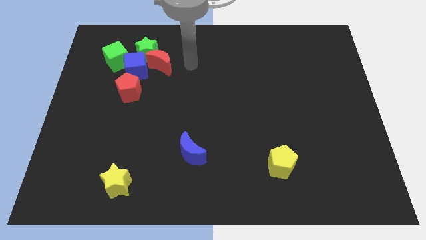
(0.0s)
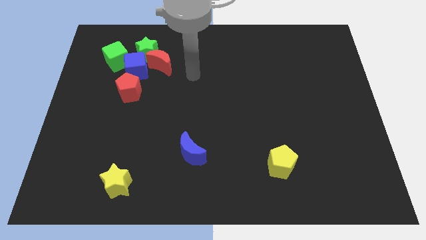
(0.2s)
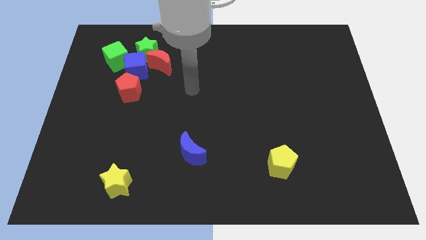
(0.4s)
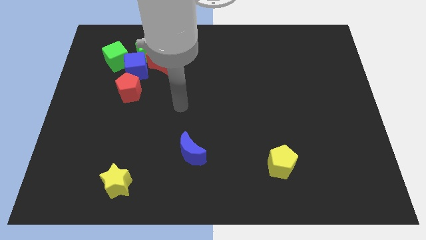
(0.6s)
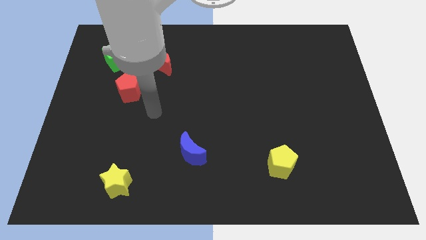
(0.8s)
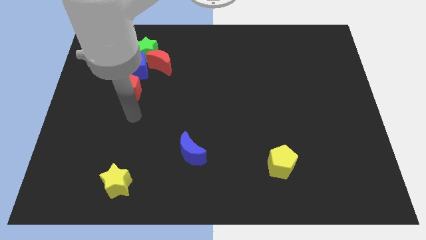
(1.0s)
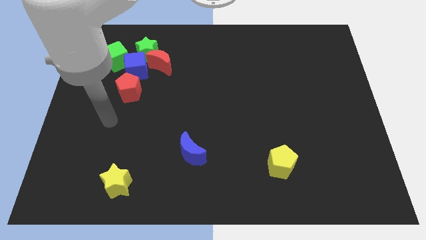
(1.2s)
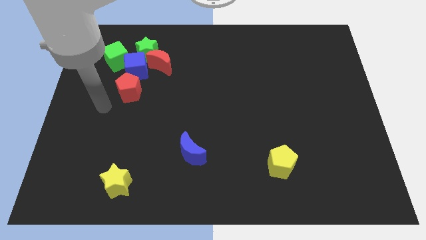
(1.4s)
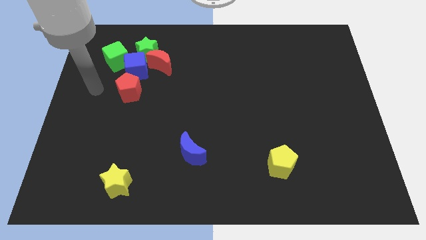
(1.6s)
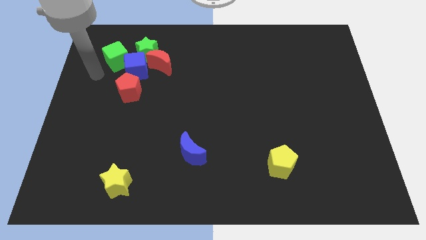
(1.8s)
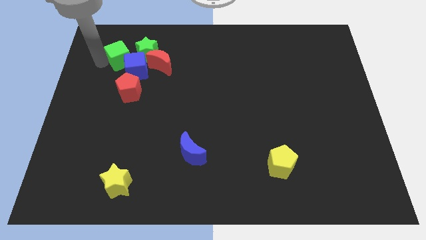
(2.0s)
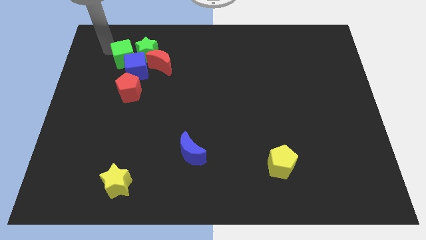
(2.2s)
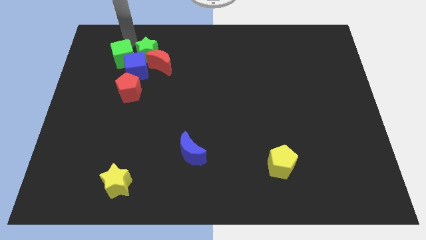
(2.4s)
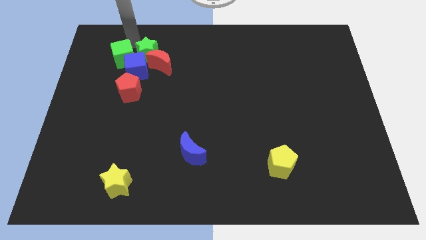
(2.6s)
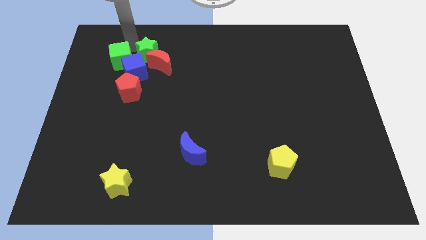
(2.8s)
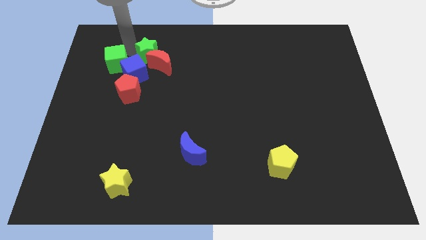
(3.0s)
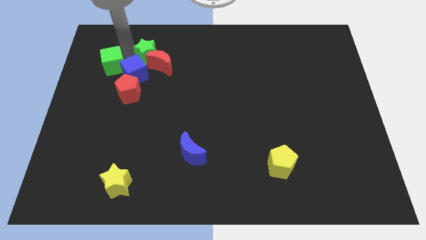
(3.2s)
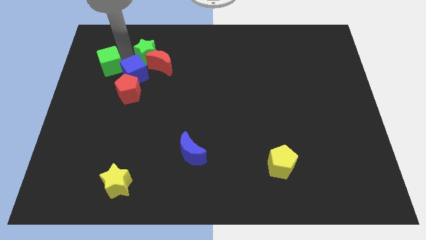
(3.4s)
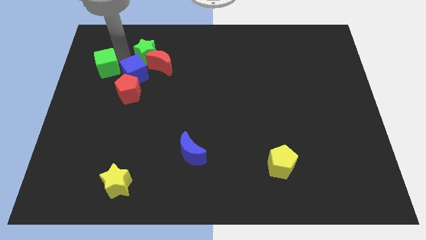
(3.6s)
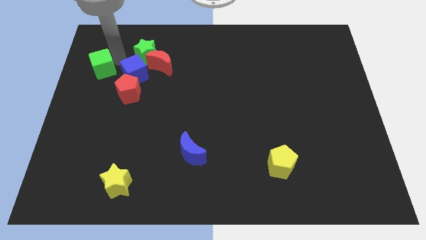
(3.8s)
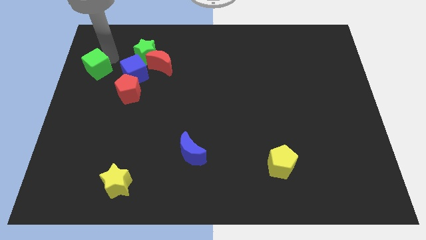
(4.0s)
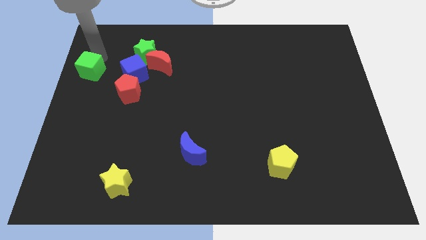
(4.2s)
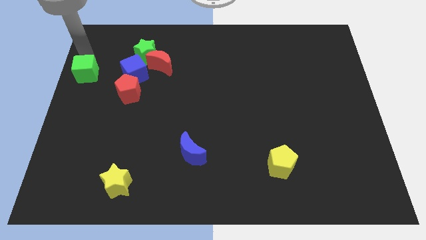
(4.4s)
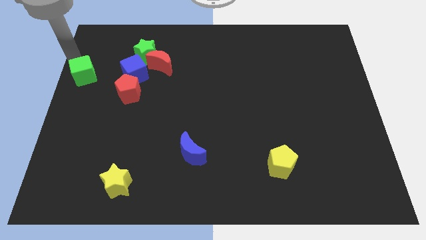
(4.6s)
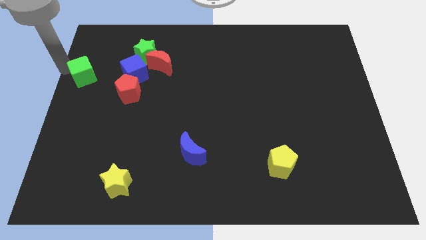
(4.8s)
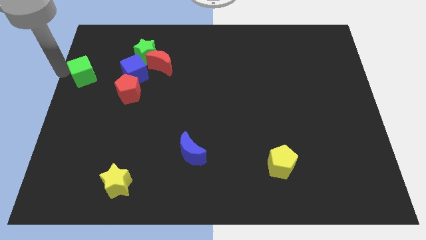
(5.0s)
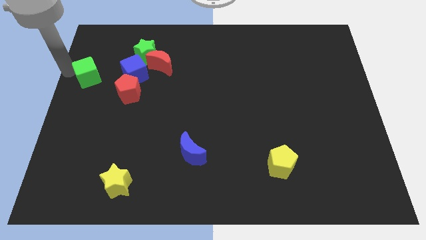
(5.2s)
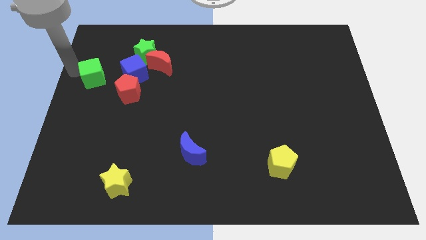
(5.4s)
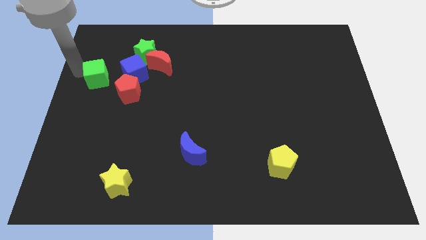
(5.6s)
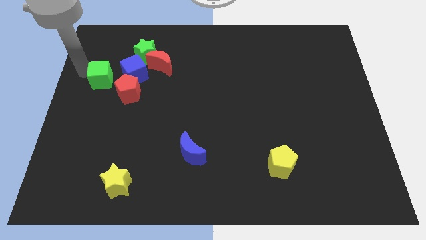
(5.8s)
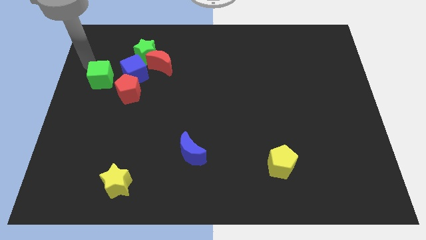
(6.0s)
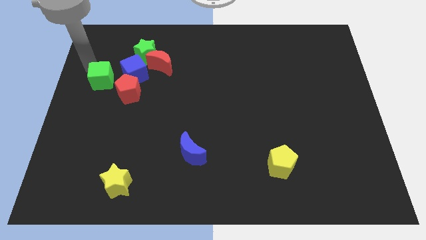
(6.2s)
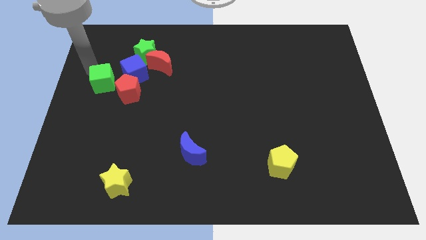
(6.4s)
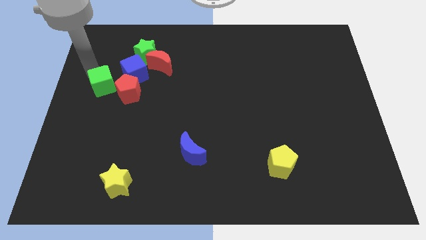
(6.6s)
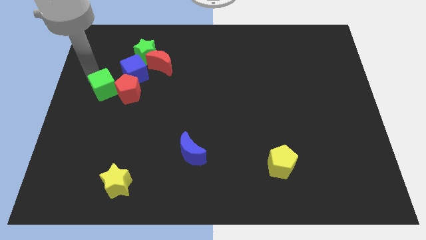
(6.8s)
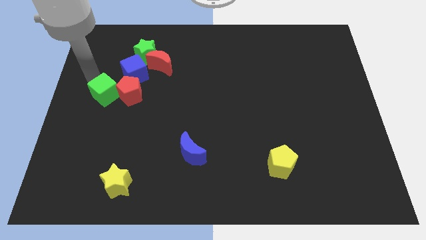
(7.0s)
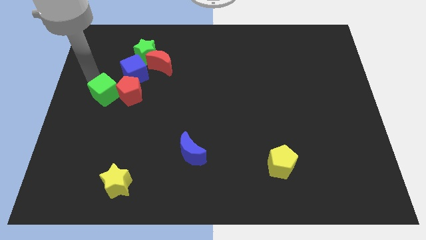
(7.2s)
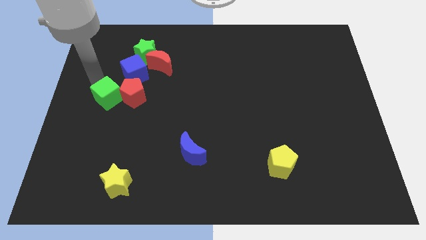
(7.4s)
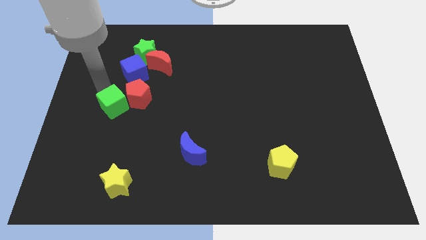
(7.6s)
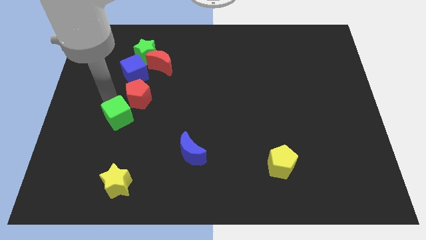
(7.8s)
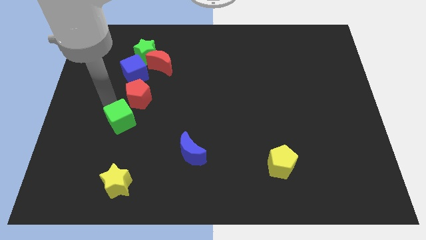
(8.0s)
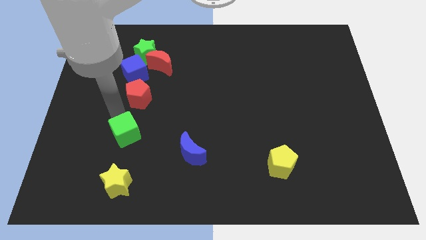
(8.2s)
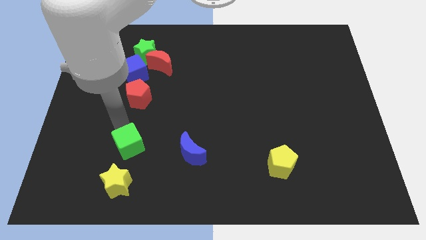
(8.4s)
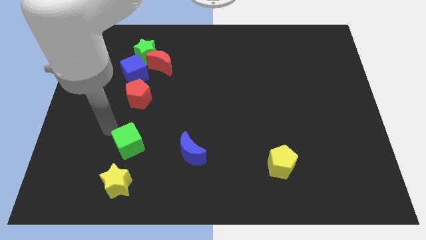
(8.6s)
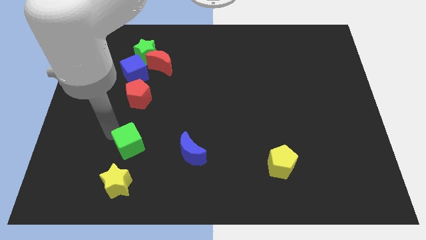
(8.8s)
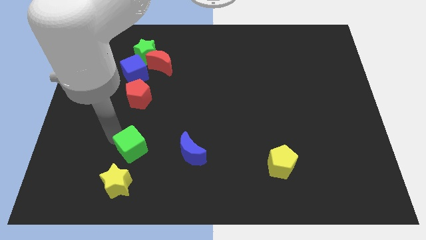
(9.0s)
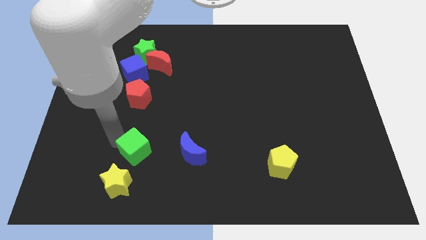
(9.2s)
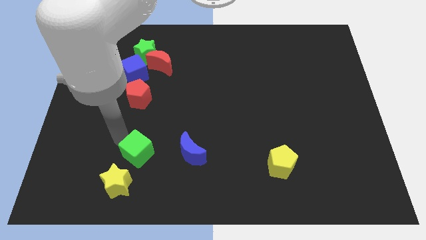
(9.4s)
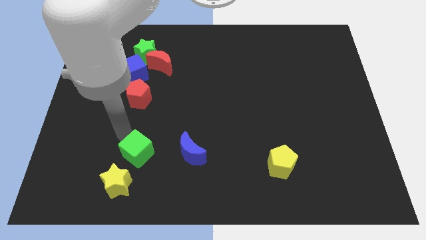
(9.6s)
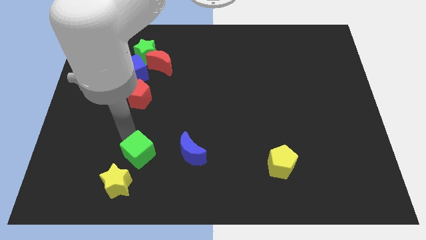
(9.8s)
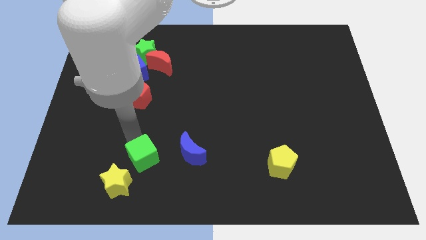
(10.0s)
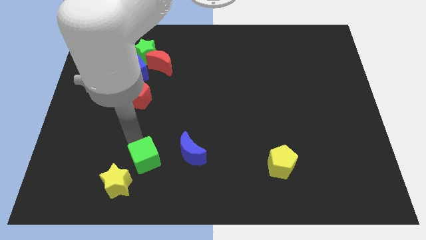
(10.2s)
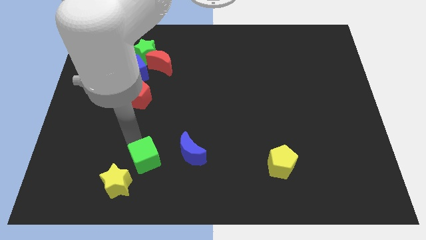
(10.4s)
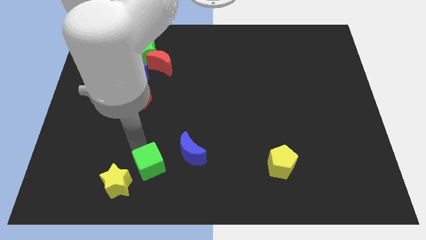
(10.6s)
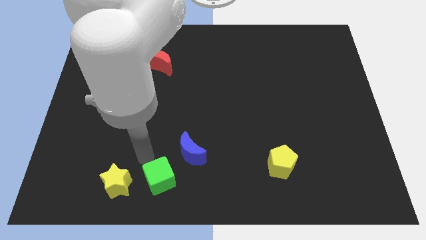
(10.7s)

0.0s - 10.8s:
move the green cube to the bottom

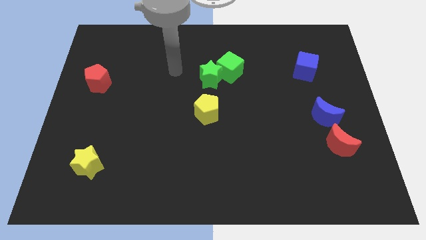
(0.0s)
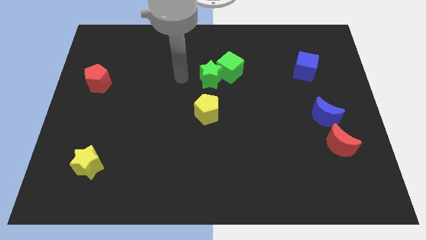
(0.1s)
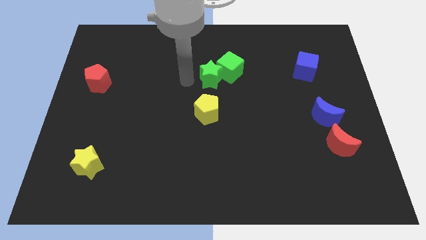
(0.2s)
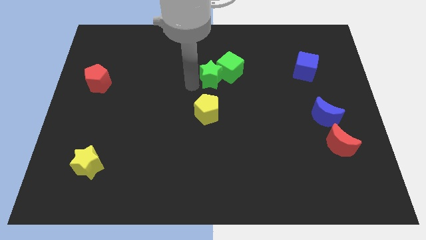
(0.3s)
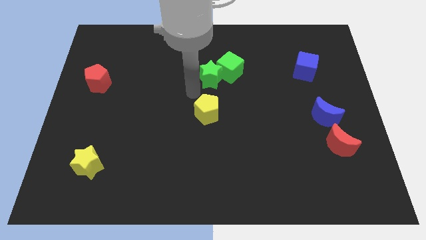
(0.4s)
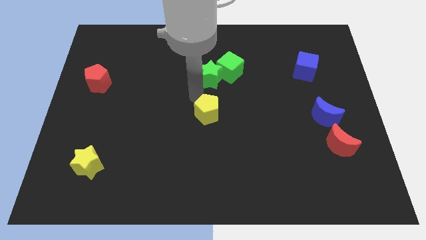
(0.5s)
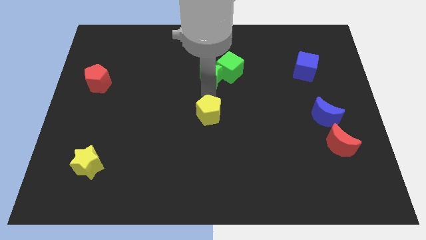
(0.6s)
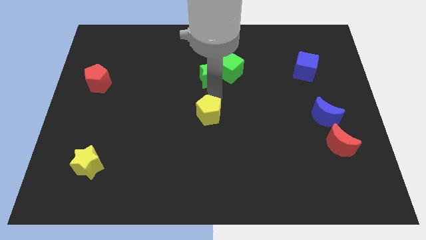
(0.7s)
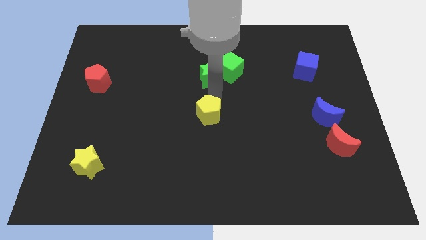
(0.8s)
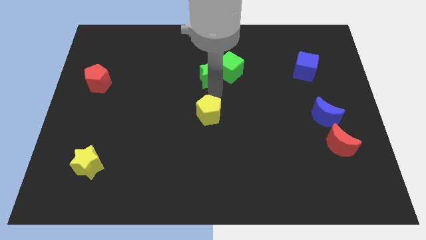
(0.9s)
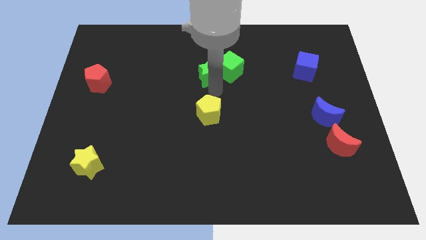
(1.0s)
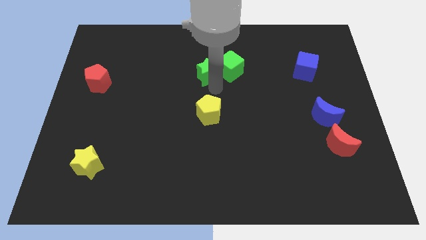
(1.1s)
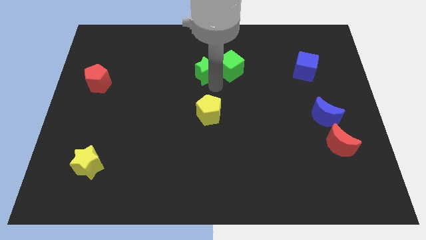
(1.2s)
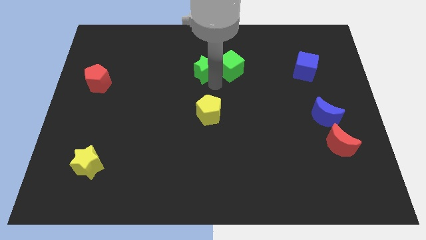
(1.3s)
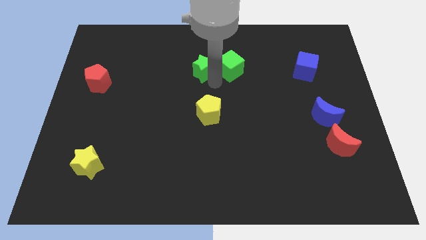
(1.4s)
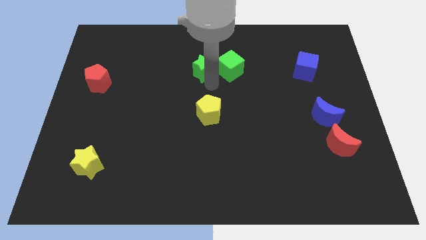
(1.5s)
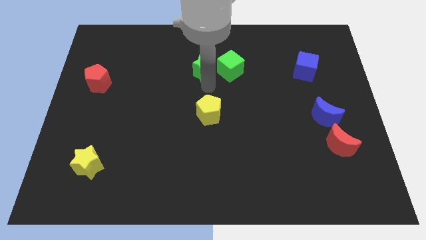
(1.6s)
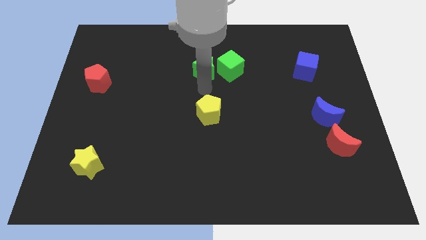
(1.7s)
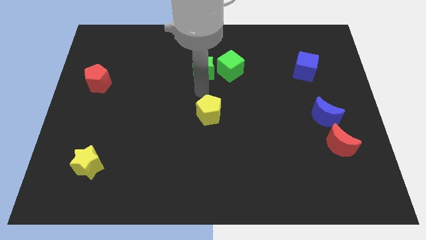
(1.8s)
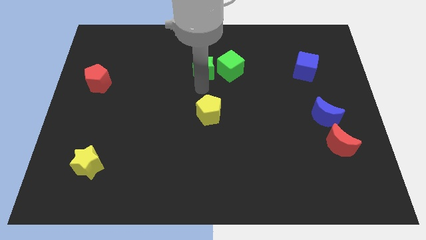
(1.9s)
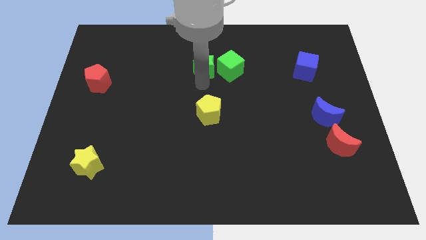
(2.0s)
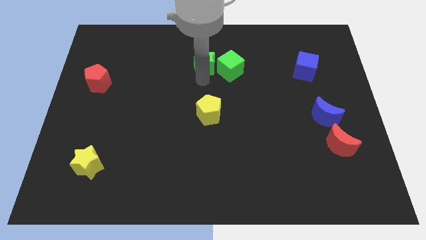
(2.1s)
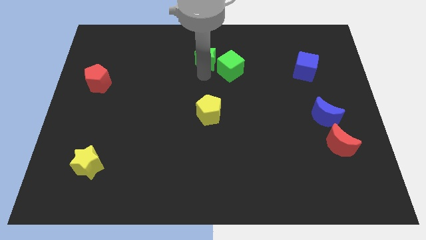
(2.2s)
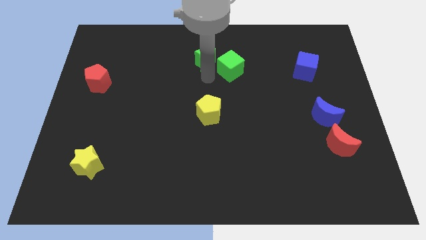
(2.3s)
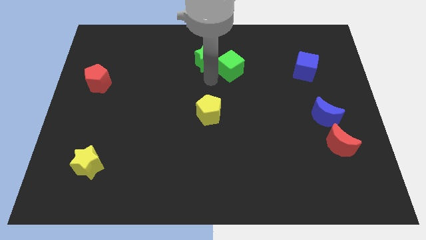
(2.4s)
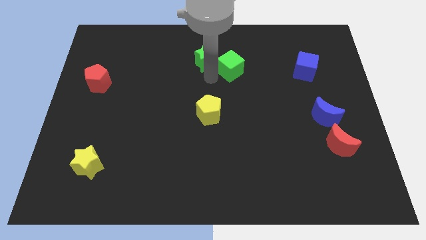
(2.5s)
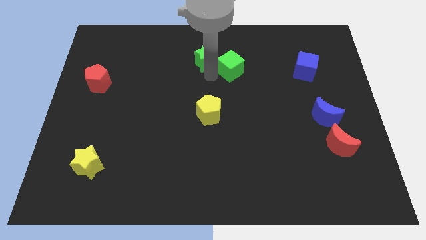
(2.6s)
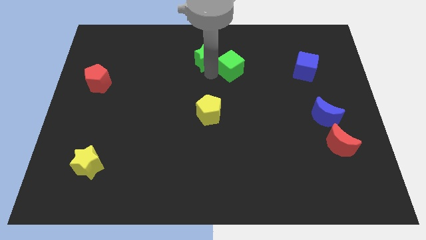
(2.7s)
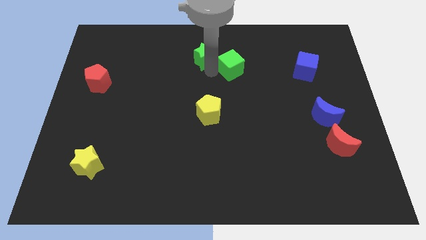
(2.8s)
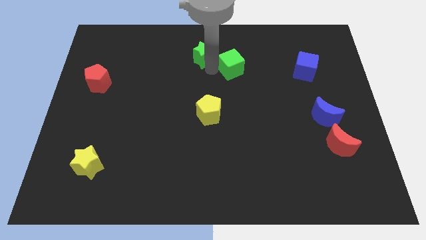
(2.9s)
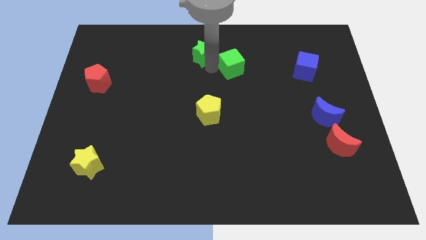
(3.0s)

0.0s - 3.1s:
slide the green star to the top side
